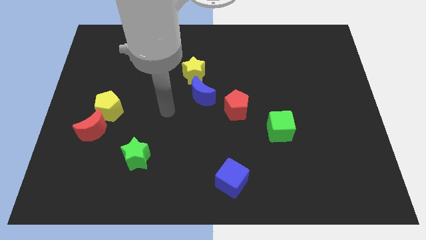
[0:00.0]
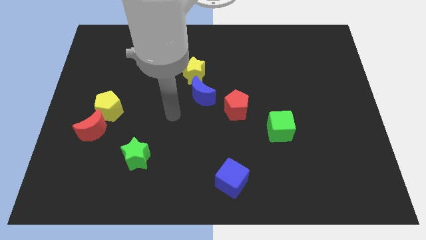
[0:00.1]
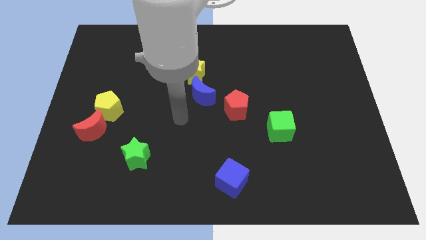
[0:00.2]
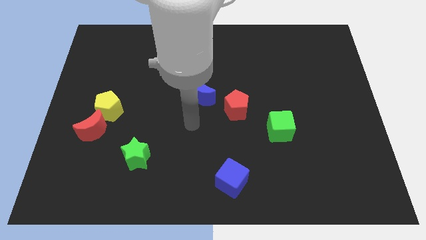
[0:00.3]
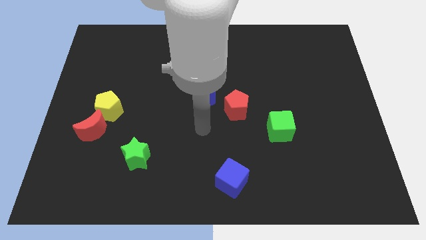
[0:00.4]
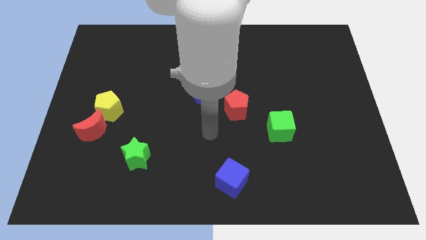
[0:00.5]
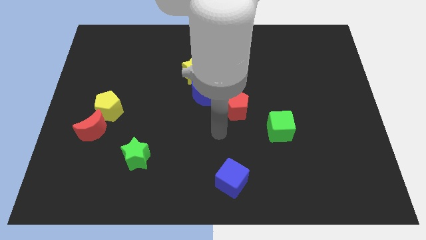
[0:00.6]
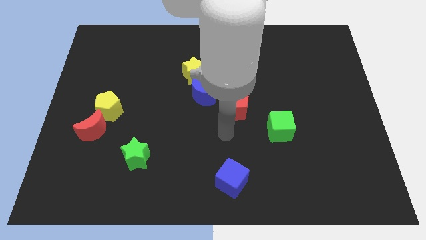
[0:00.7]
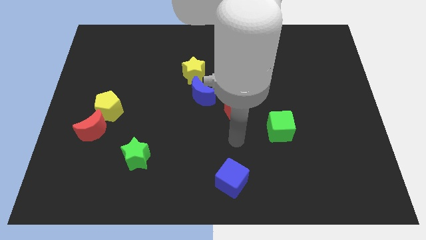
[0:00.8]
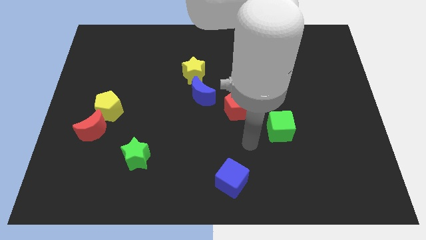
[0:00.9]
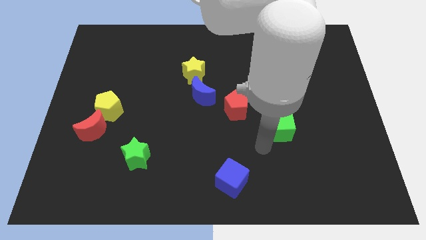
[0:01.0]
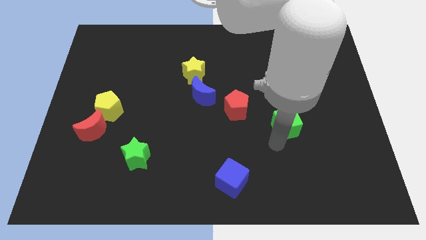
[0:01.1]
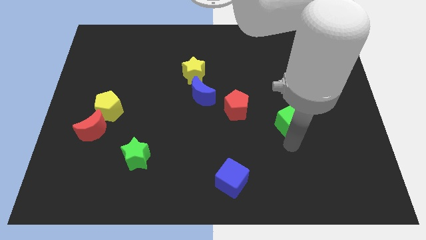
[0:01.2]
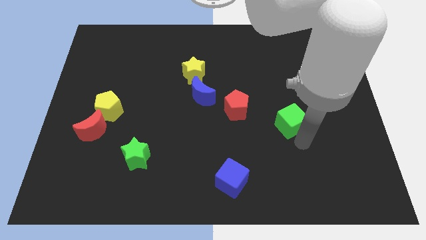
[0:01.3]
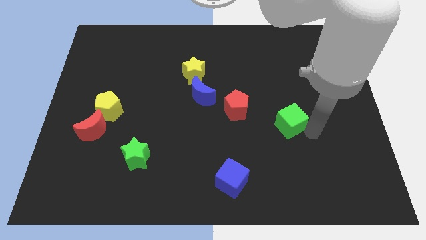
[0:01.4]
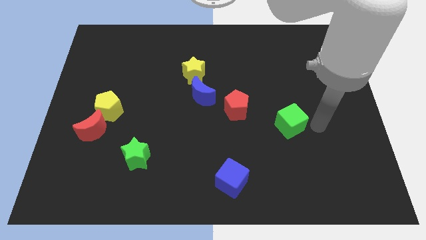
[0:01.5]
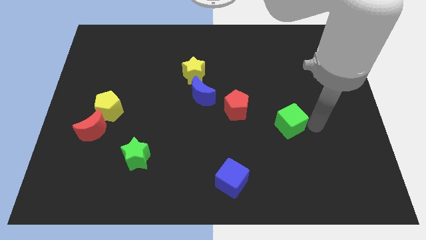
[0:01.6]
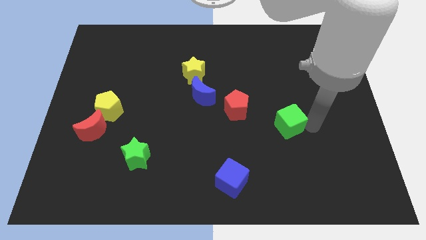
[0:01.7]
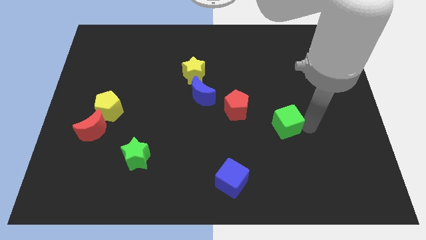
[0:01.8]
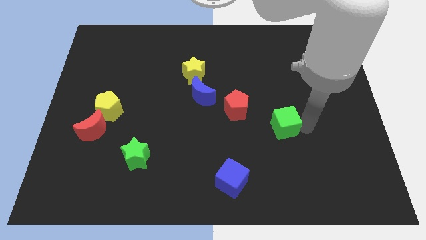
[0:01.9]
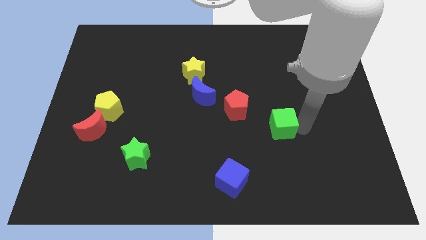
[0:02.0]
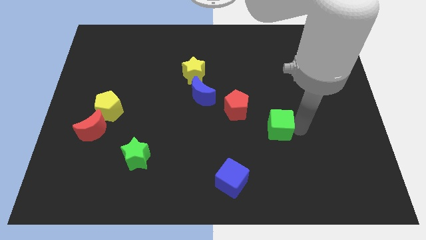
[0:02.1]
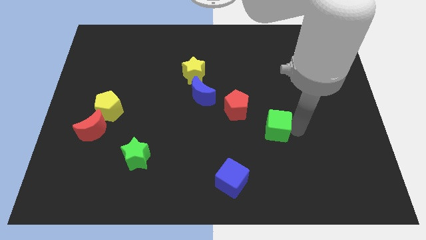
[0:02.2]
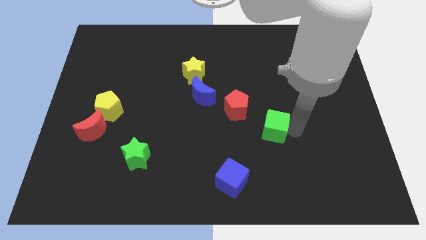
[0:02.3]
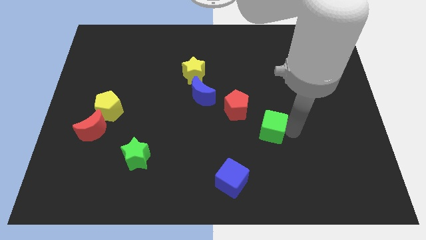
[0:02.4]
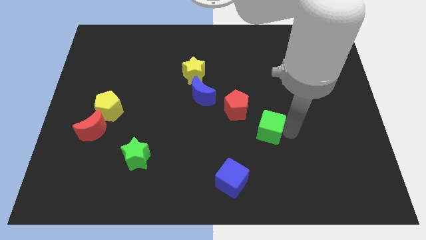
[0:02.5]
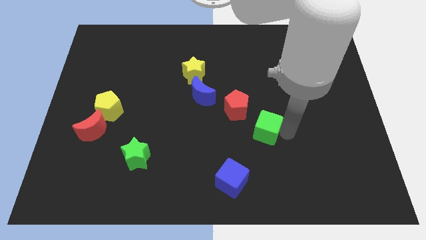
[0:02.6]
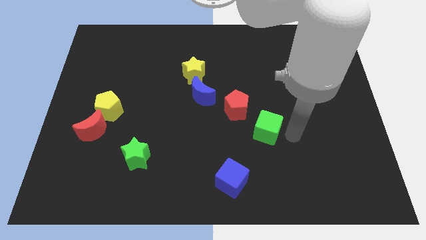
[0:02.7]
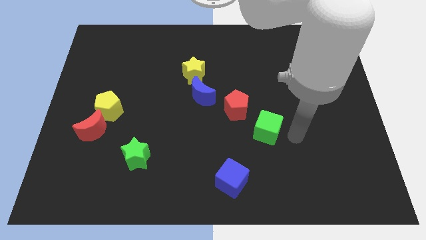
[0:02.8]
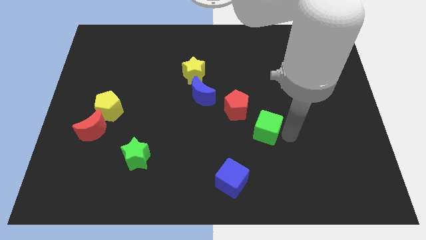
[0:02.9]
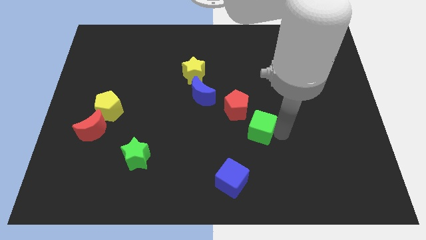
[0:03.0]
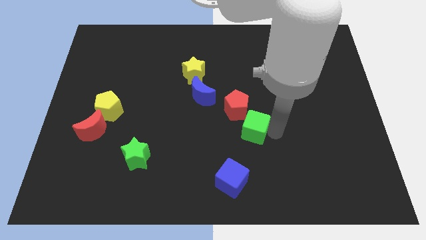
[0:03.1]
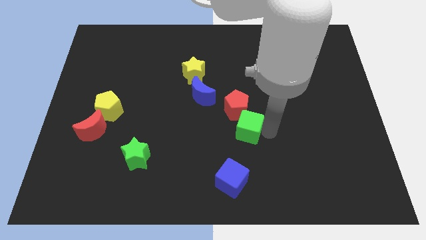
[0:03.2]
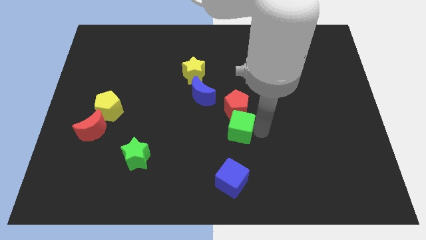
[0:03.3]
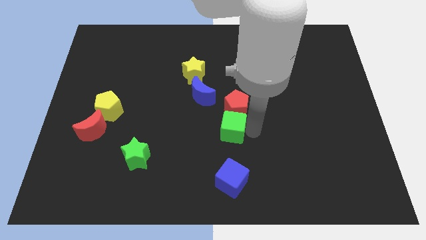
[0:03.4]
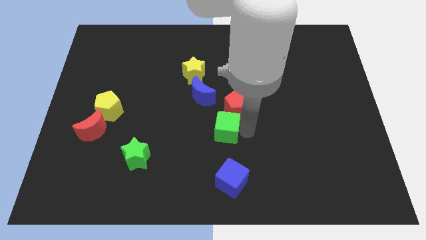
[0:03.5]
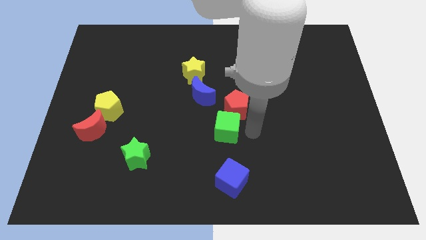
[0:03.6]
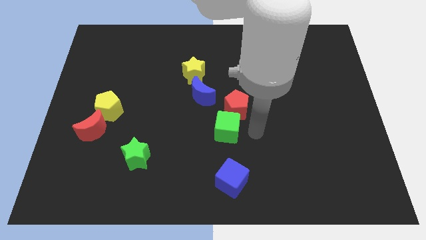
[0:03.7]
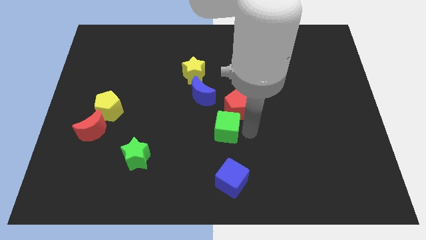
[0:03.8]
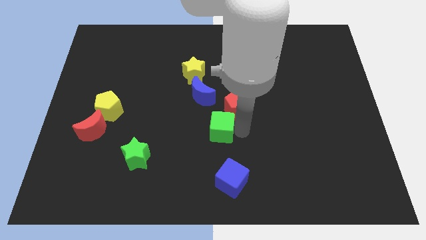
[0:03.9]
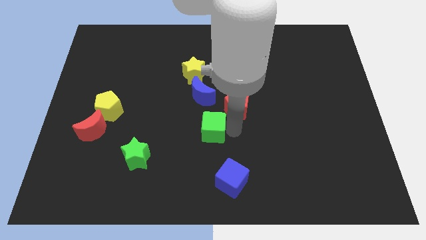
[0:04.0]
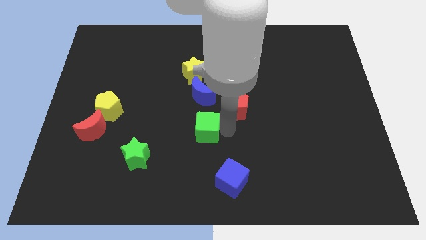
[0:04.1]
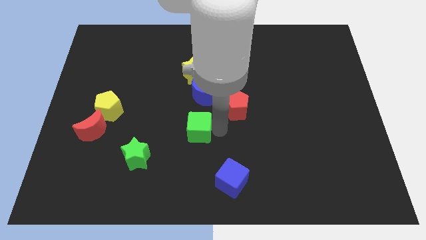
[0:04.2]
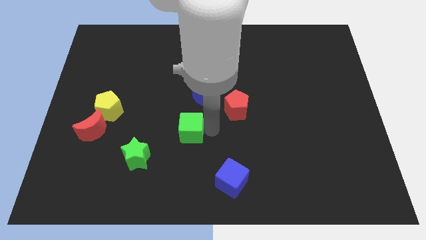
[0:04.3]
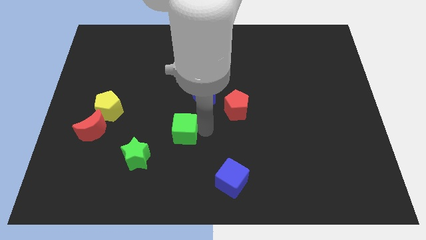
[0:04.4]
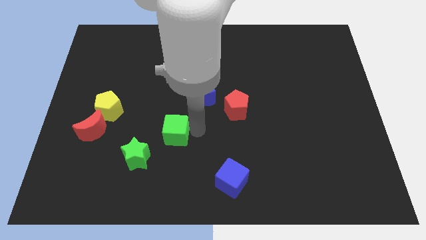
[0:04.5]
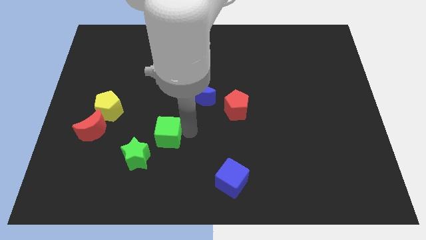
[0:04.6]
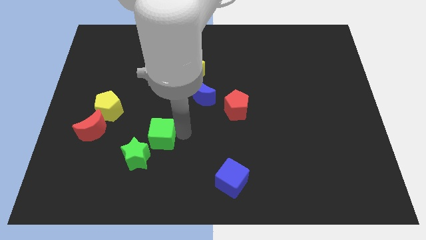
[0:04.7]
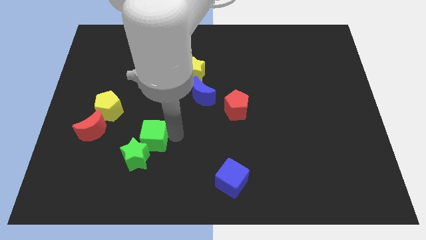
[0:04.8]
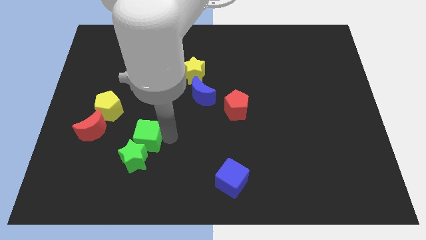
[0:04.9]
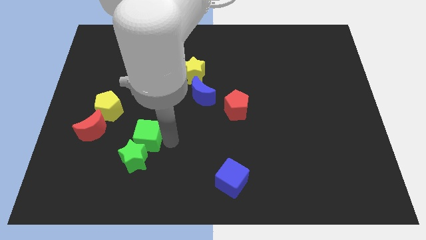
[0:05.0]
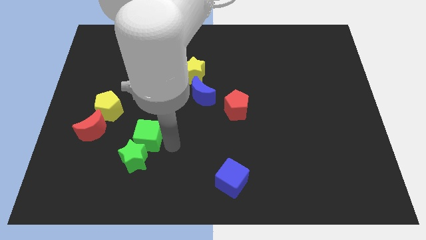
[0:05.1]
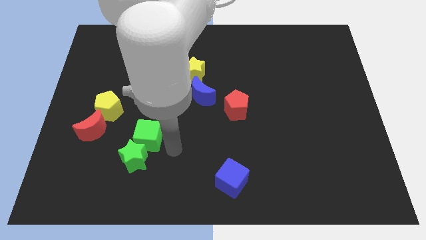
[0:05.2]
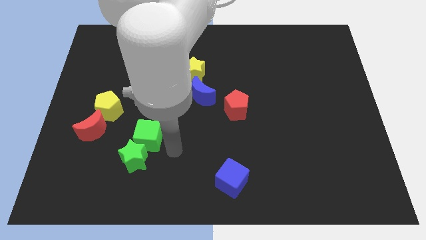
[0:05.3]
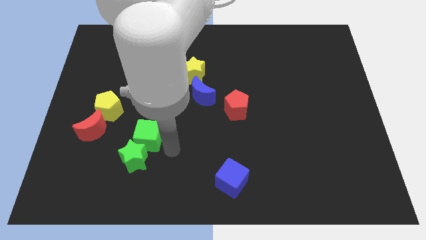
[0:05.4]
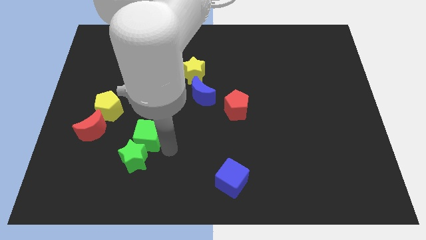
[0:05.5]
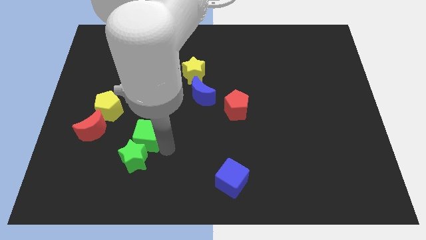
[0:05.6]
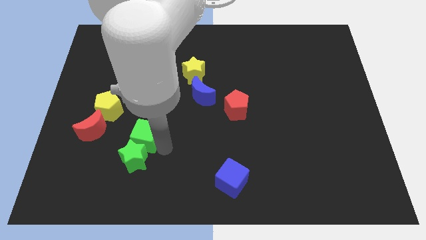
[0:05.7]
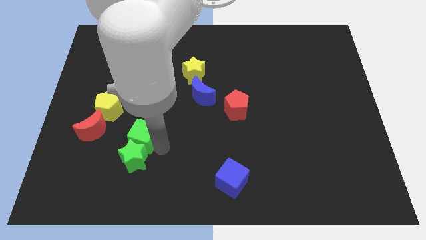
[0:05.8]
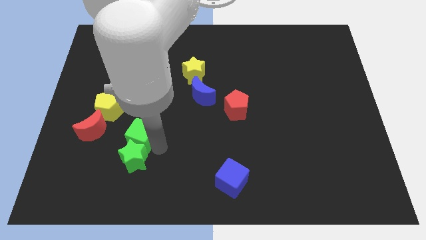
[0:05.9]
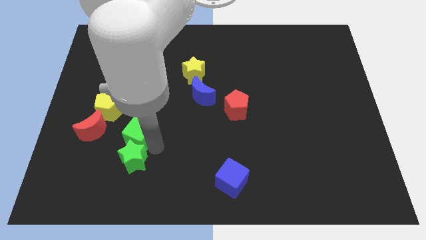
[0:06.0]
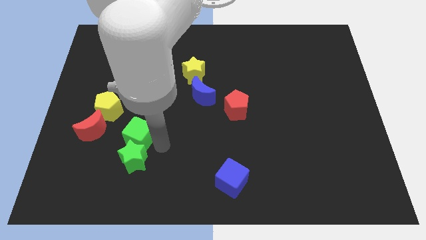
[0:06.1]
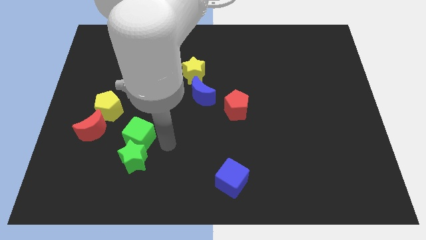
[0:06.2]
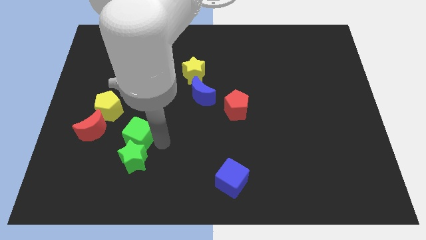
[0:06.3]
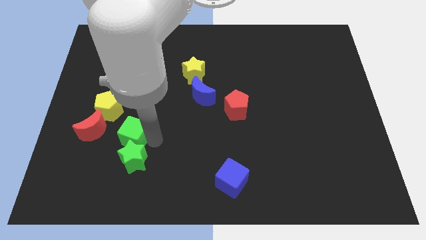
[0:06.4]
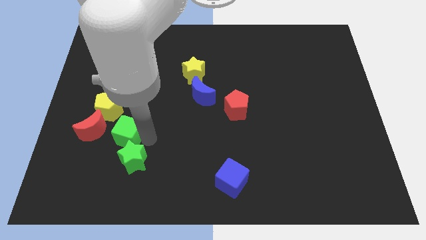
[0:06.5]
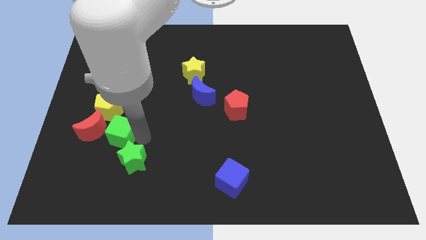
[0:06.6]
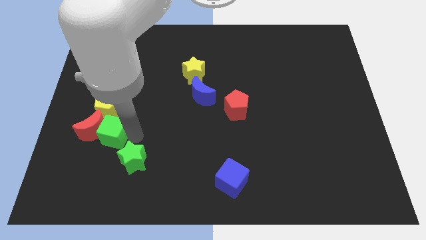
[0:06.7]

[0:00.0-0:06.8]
push the green cube next to the red moon

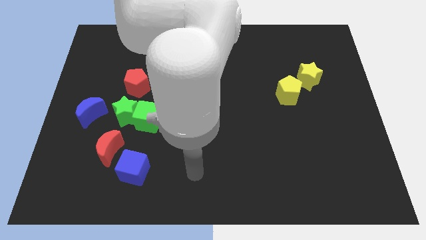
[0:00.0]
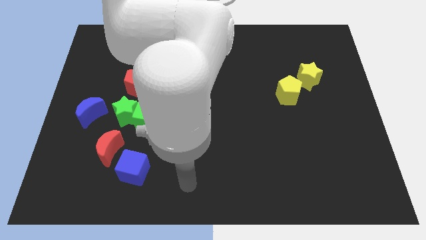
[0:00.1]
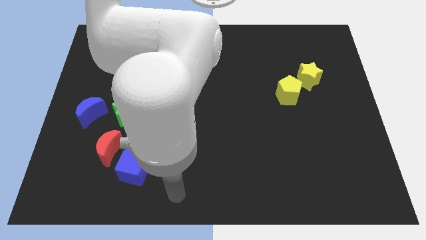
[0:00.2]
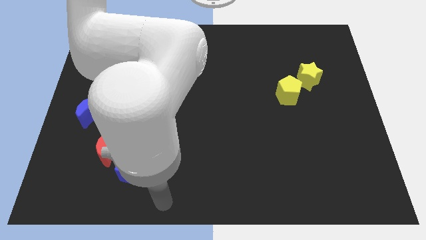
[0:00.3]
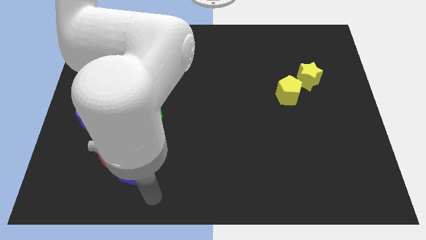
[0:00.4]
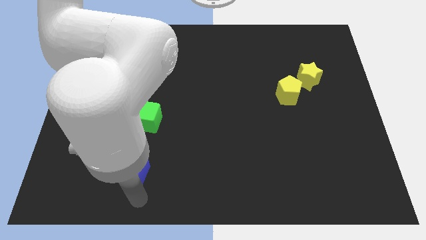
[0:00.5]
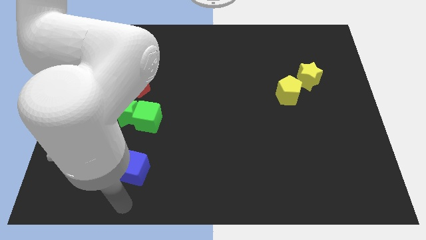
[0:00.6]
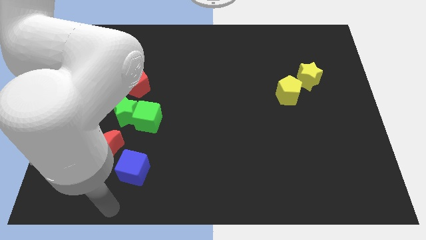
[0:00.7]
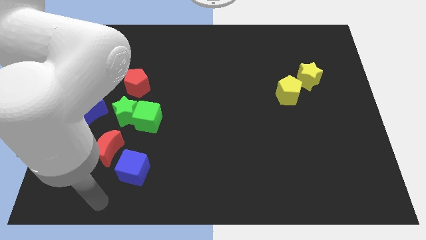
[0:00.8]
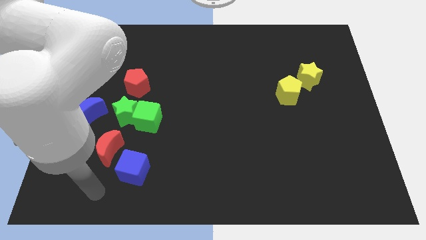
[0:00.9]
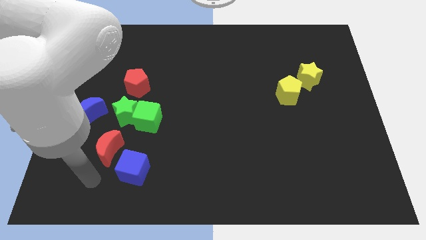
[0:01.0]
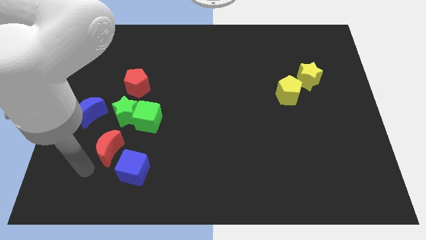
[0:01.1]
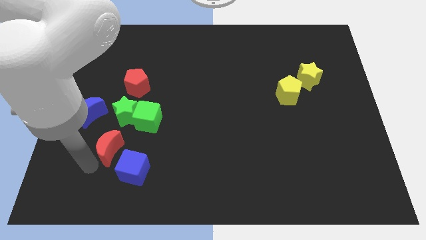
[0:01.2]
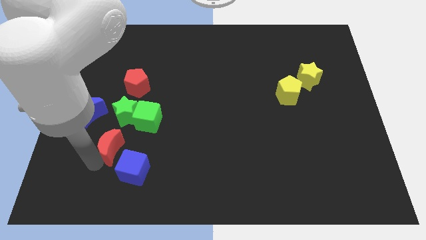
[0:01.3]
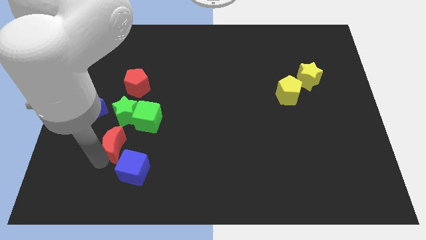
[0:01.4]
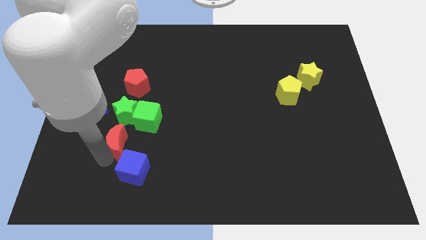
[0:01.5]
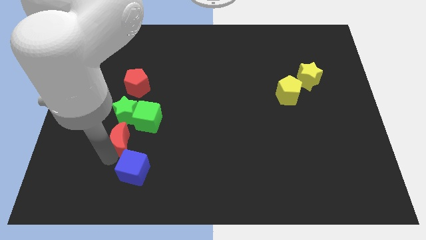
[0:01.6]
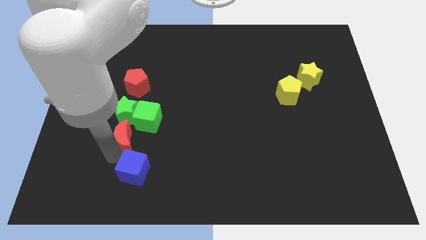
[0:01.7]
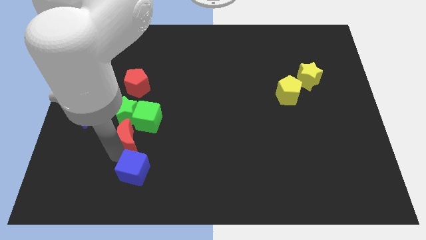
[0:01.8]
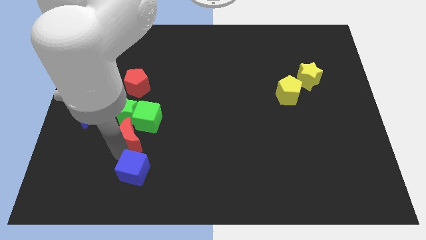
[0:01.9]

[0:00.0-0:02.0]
push the red moon close to the green cube
